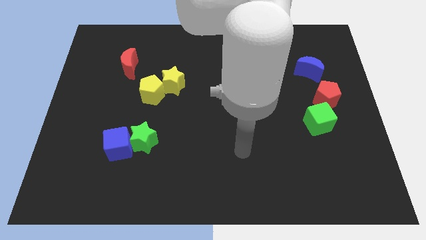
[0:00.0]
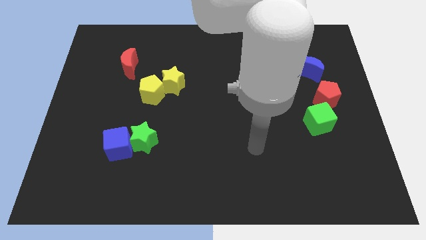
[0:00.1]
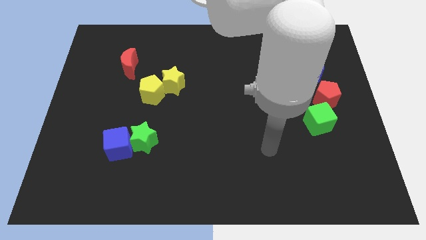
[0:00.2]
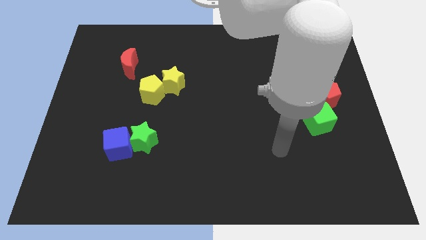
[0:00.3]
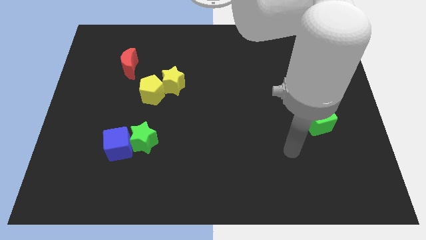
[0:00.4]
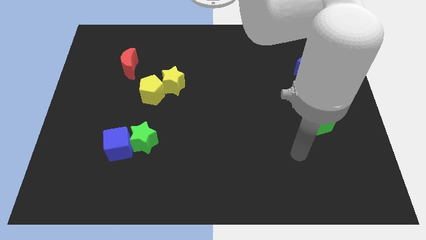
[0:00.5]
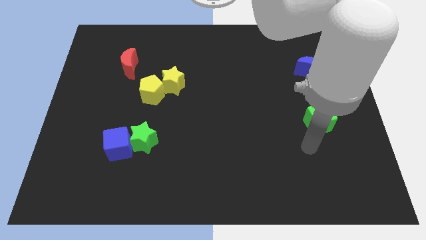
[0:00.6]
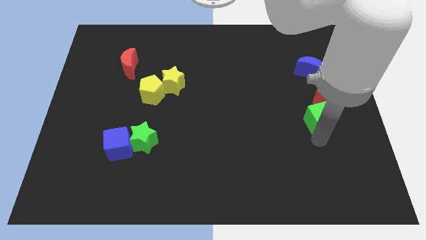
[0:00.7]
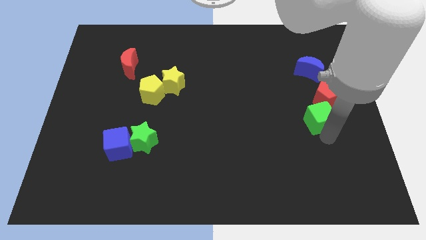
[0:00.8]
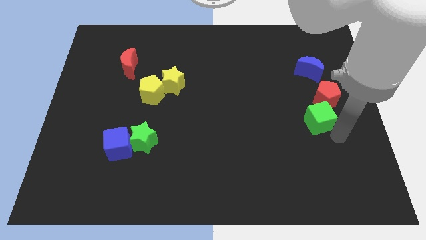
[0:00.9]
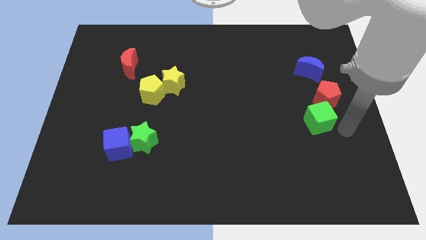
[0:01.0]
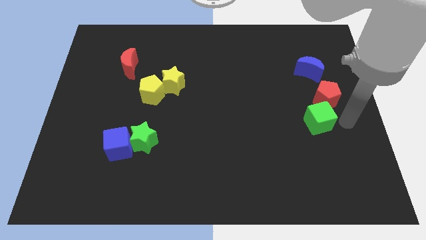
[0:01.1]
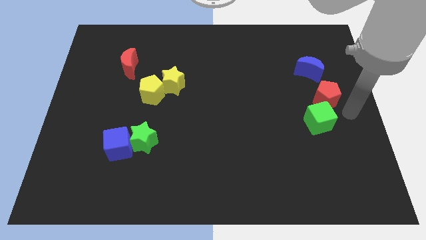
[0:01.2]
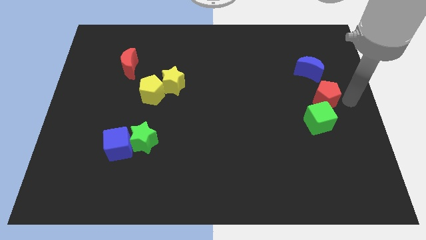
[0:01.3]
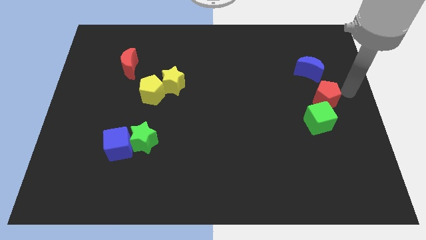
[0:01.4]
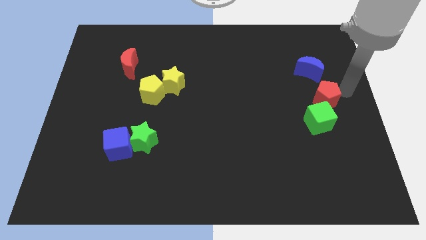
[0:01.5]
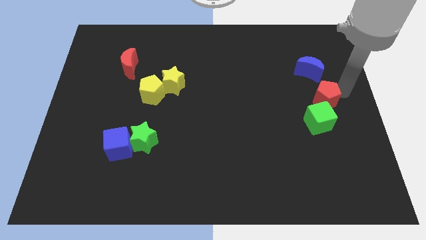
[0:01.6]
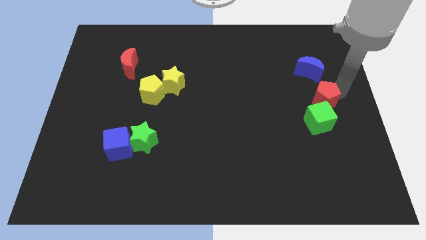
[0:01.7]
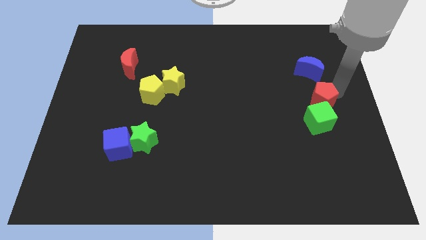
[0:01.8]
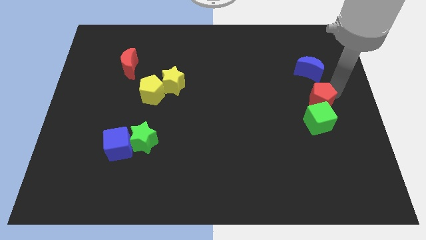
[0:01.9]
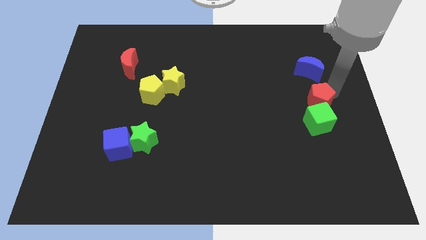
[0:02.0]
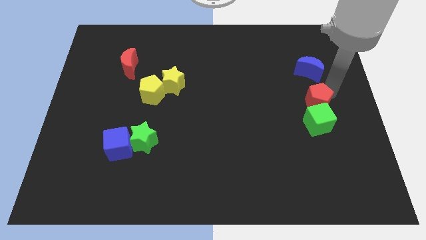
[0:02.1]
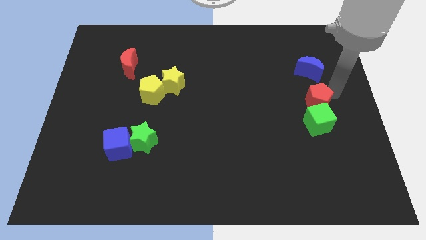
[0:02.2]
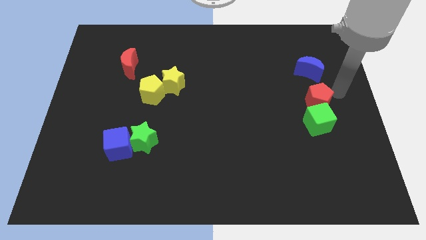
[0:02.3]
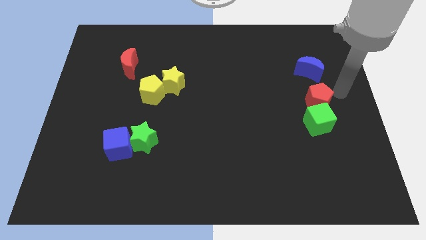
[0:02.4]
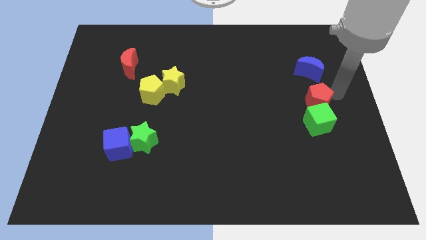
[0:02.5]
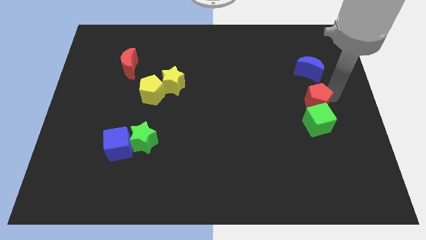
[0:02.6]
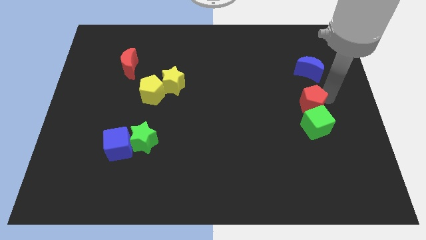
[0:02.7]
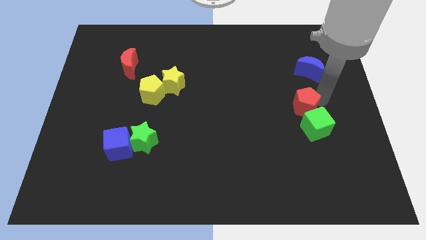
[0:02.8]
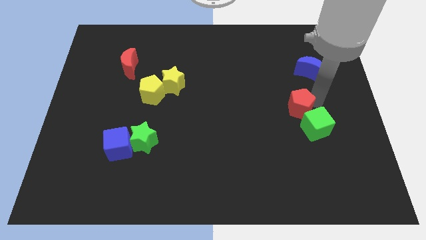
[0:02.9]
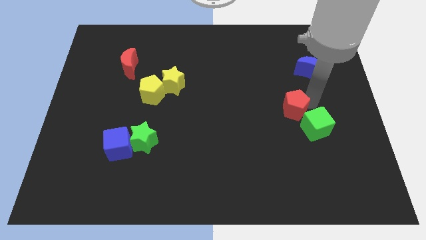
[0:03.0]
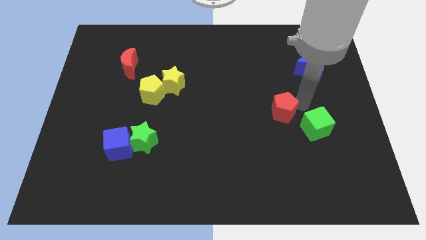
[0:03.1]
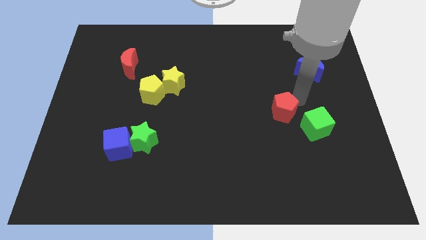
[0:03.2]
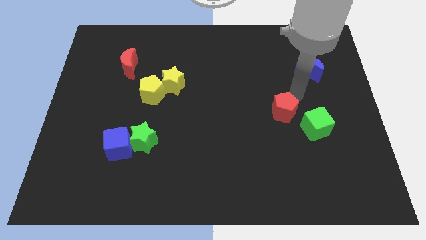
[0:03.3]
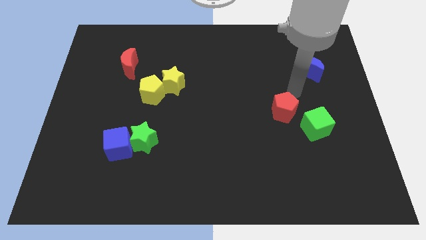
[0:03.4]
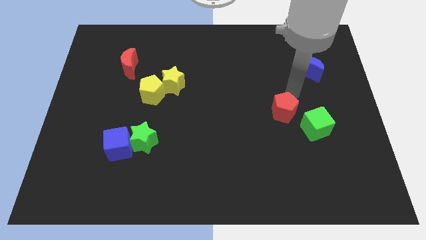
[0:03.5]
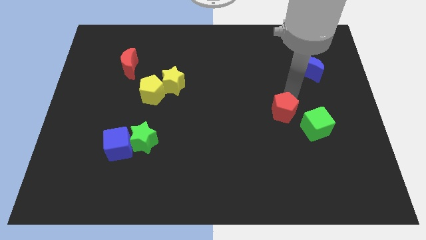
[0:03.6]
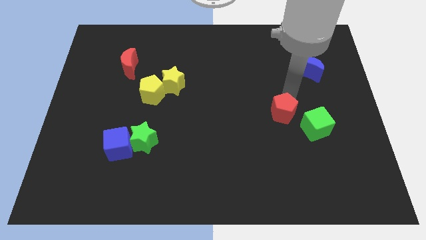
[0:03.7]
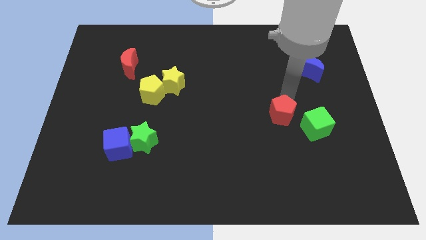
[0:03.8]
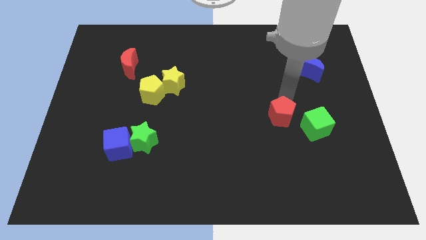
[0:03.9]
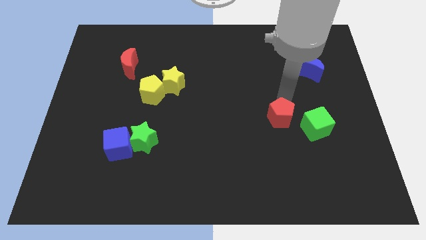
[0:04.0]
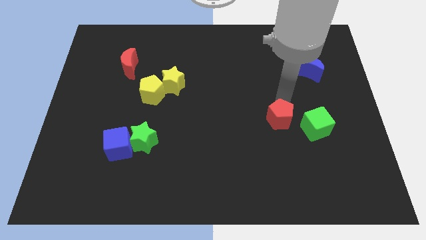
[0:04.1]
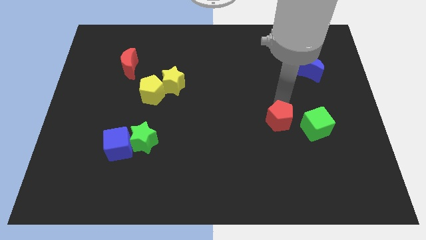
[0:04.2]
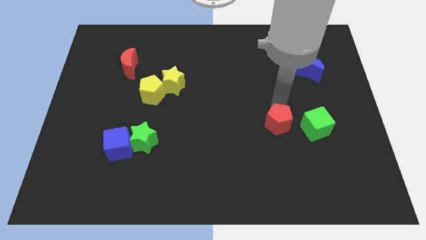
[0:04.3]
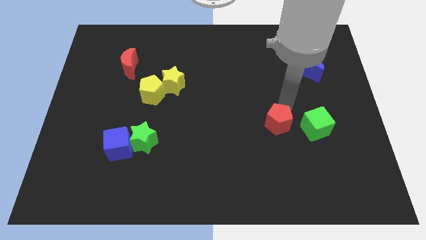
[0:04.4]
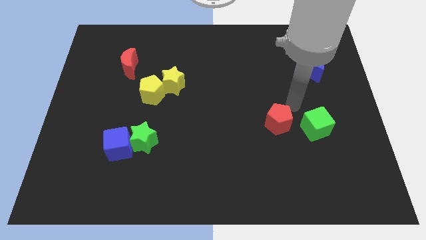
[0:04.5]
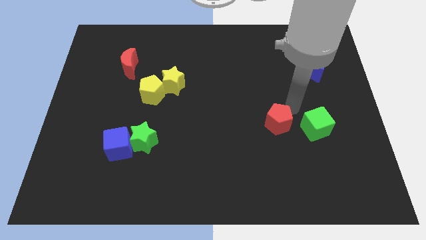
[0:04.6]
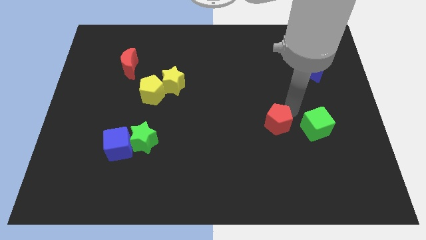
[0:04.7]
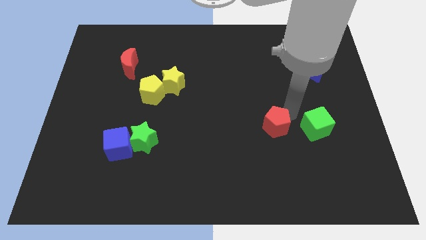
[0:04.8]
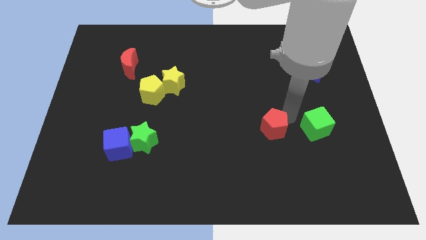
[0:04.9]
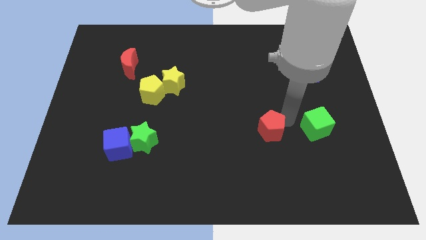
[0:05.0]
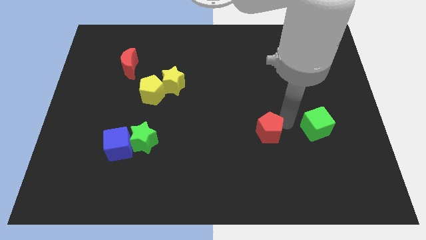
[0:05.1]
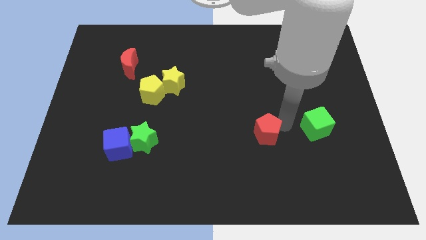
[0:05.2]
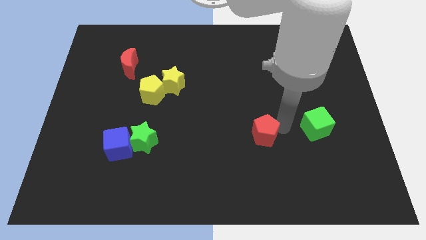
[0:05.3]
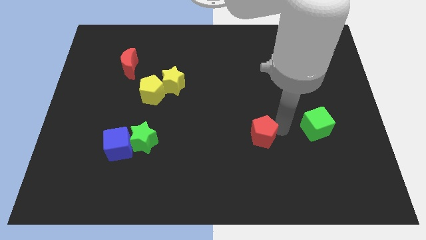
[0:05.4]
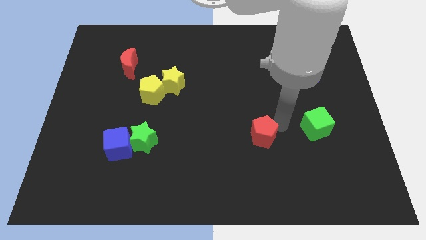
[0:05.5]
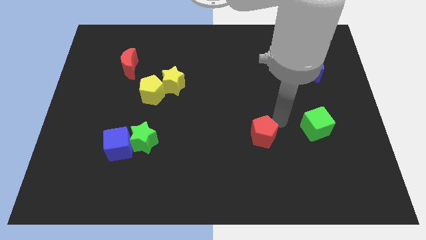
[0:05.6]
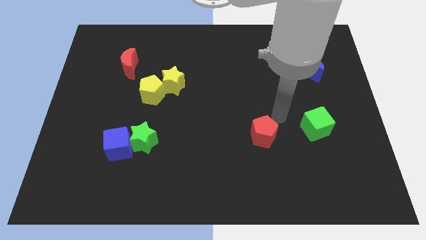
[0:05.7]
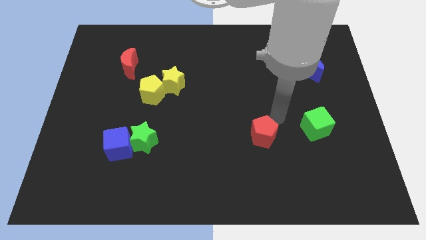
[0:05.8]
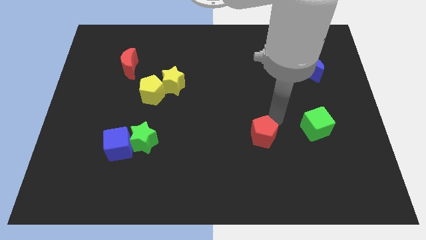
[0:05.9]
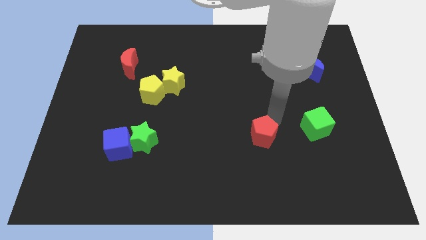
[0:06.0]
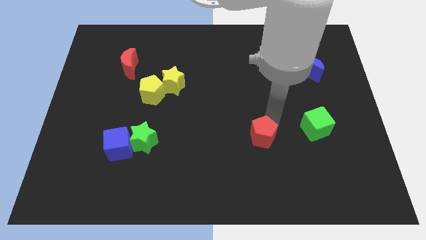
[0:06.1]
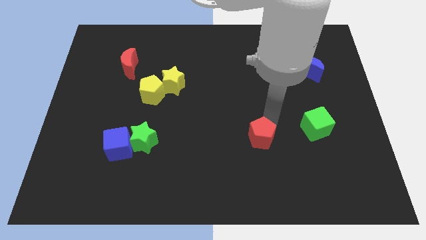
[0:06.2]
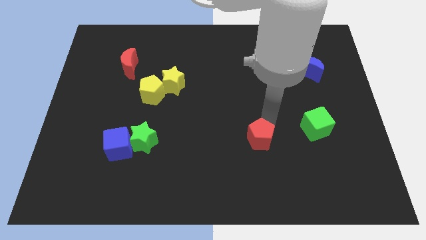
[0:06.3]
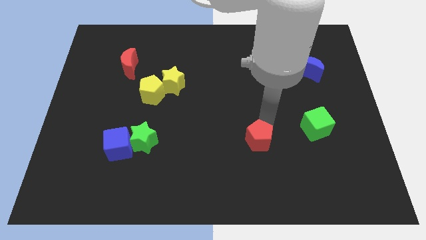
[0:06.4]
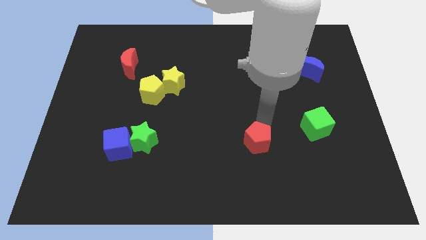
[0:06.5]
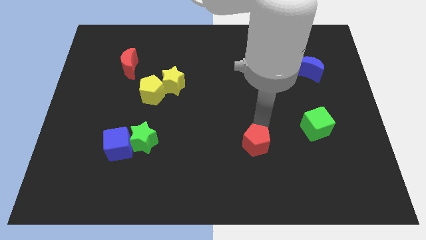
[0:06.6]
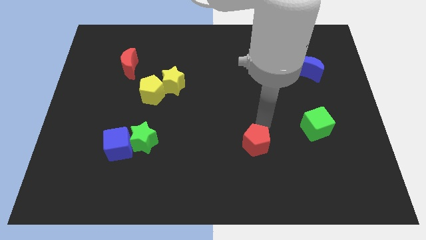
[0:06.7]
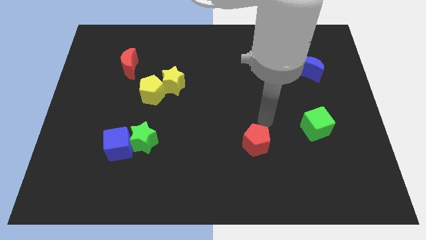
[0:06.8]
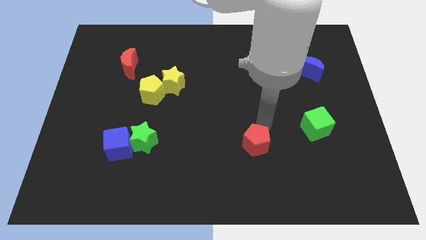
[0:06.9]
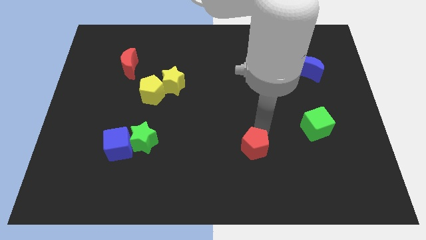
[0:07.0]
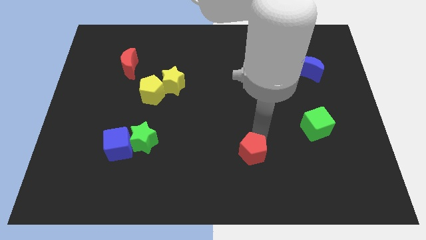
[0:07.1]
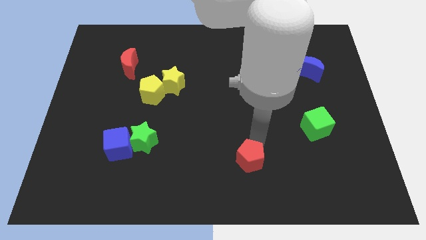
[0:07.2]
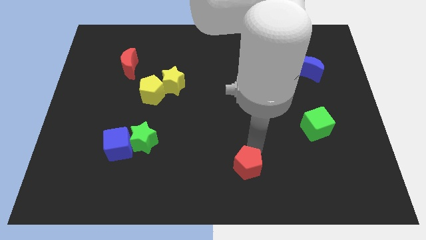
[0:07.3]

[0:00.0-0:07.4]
move the red pentagon to the bottom side
